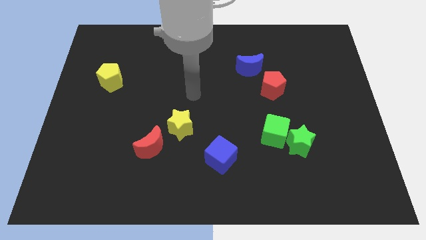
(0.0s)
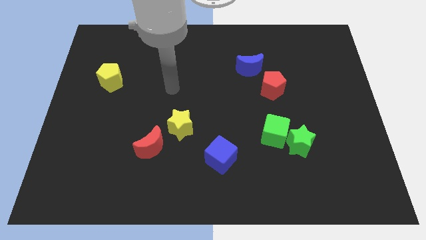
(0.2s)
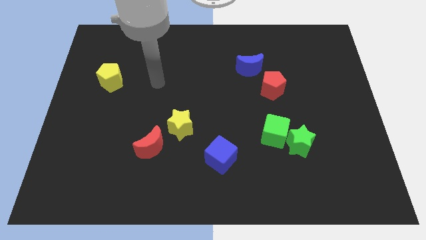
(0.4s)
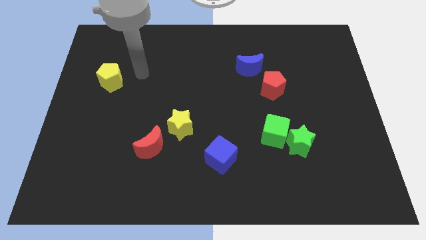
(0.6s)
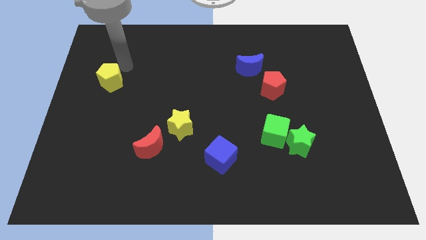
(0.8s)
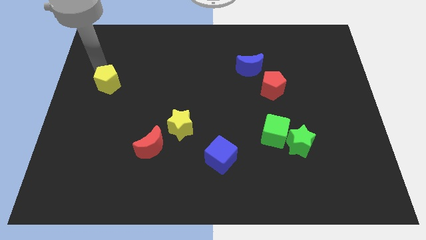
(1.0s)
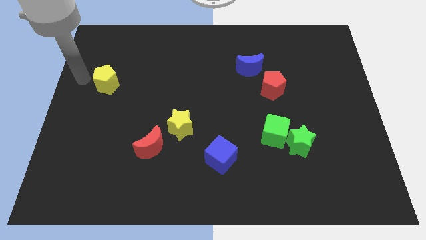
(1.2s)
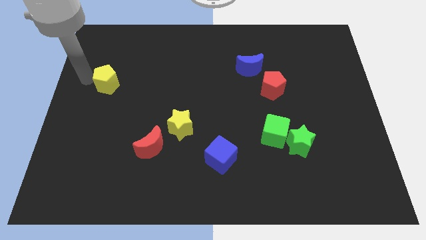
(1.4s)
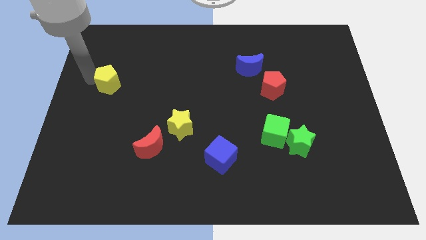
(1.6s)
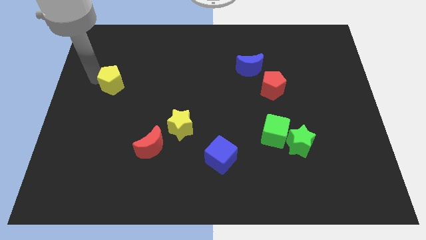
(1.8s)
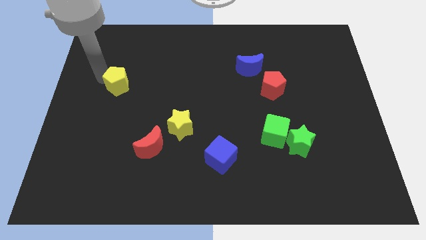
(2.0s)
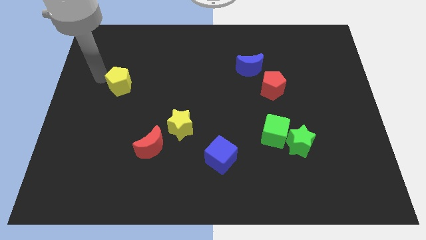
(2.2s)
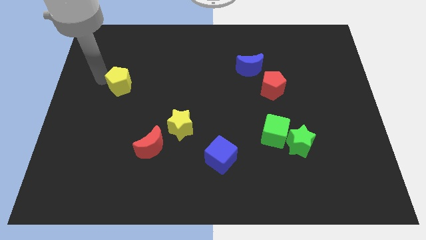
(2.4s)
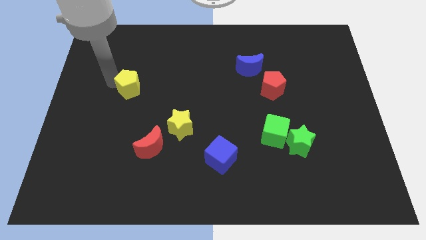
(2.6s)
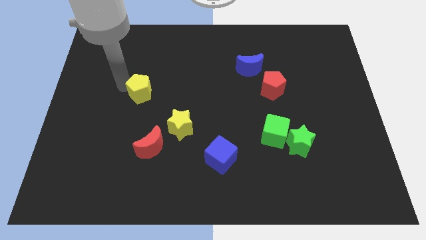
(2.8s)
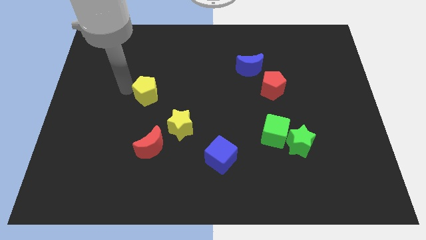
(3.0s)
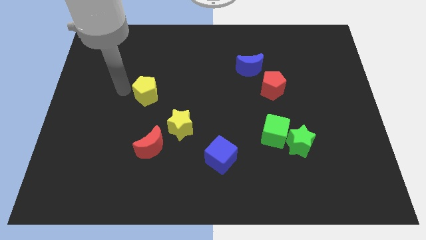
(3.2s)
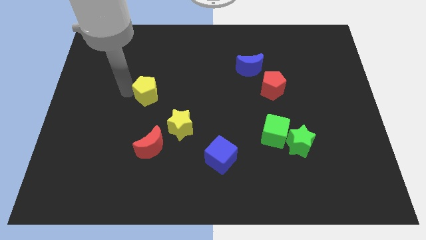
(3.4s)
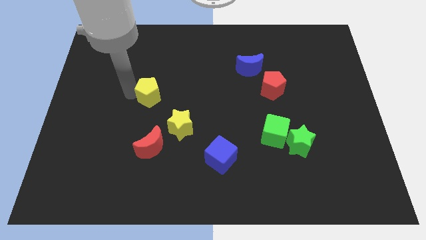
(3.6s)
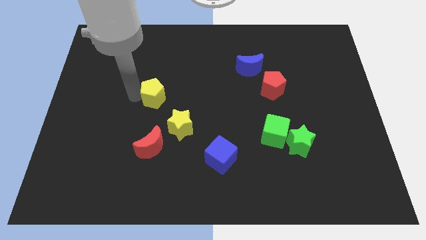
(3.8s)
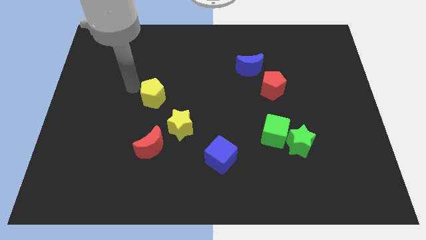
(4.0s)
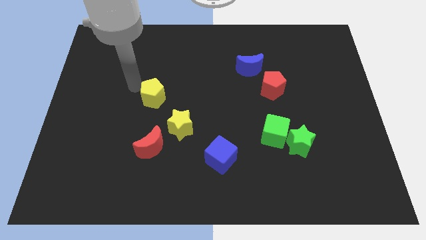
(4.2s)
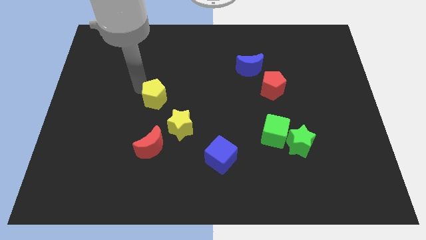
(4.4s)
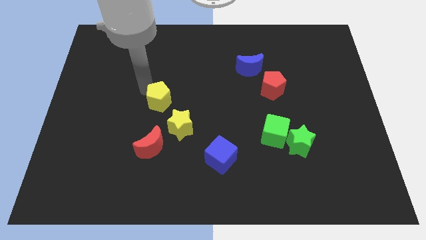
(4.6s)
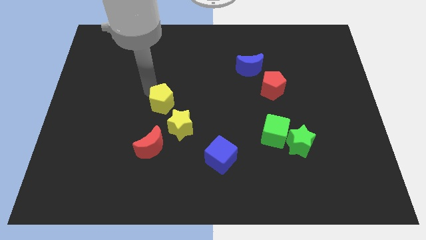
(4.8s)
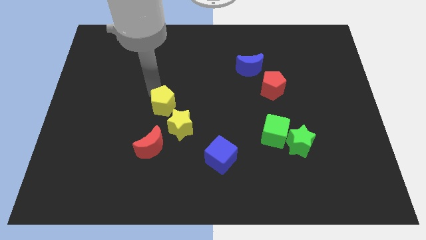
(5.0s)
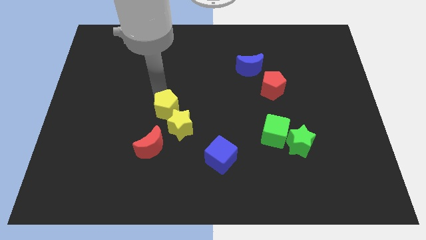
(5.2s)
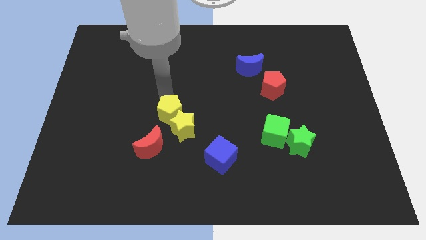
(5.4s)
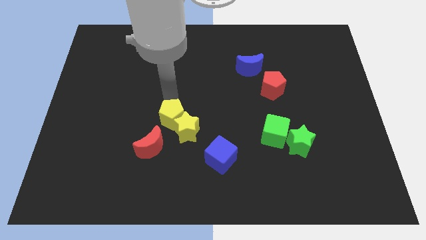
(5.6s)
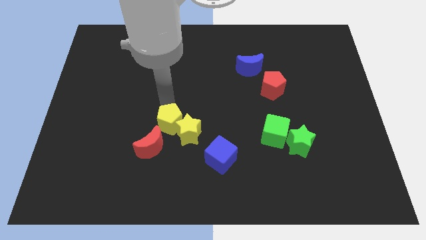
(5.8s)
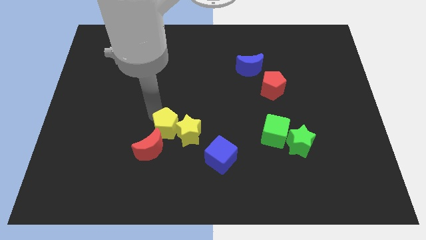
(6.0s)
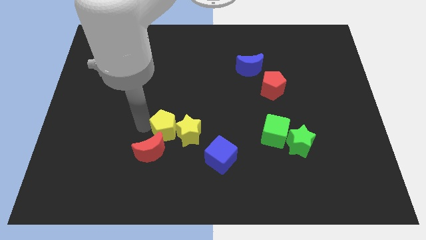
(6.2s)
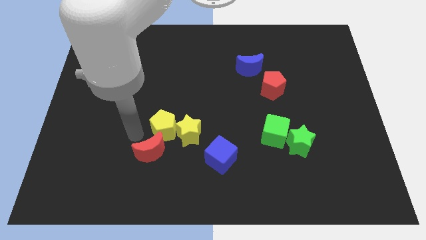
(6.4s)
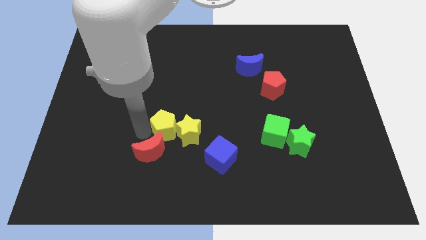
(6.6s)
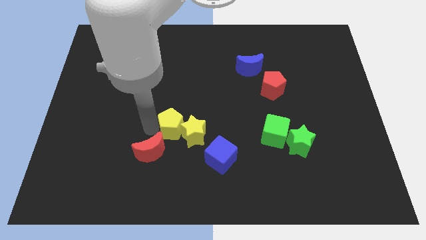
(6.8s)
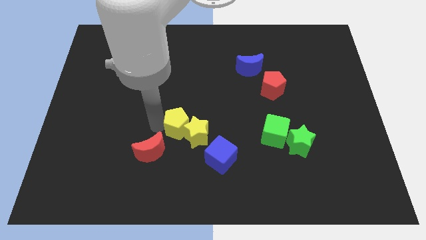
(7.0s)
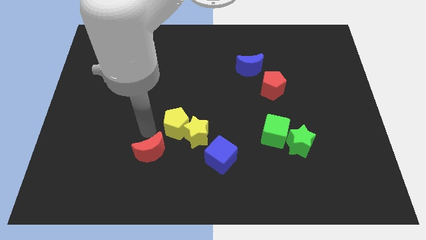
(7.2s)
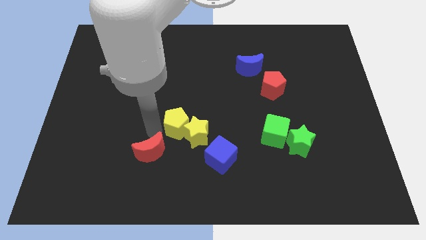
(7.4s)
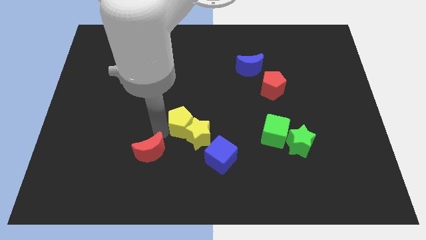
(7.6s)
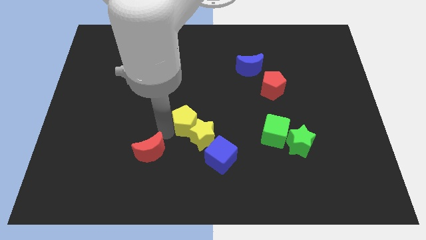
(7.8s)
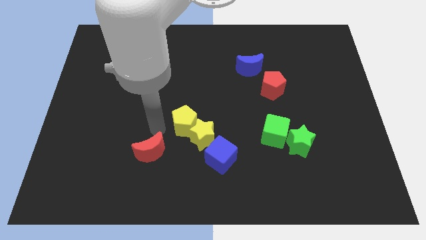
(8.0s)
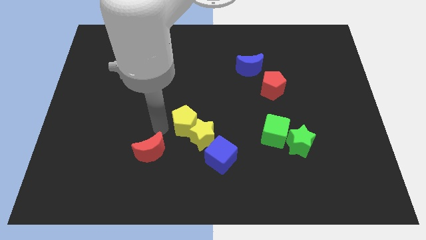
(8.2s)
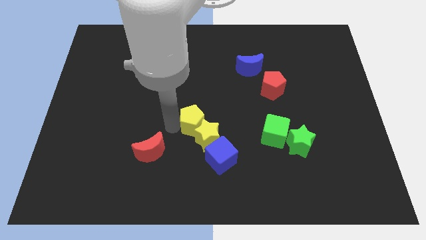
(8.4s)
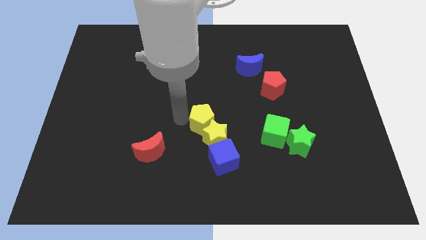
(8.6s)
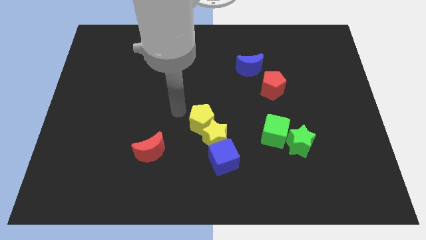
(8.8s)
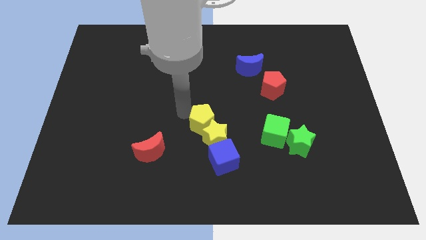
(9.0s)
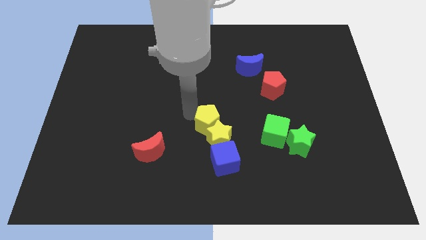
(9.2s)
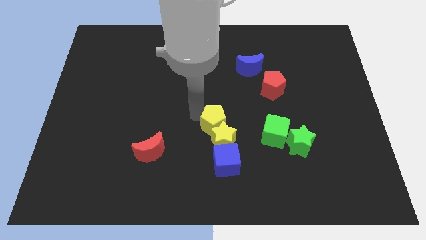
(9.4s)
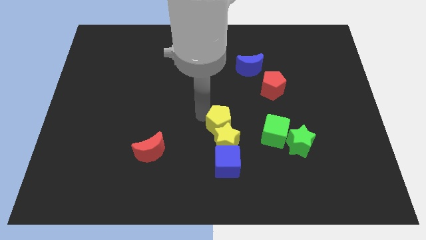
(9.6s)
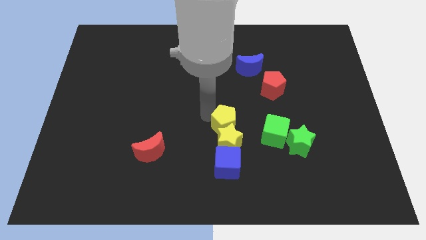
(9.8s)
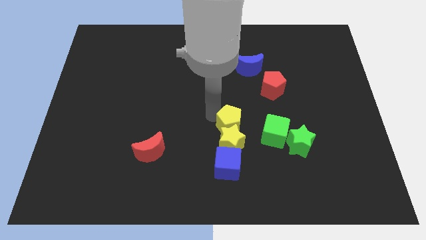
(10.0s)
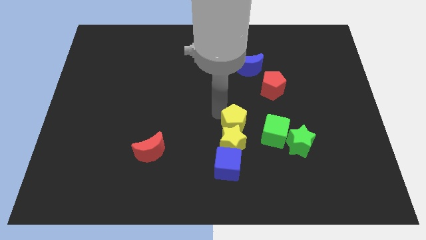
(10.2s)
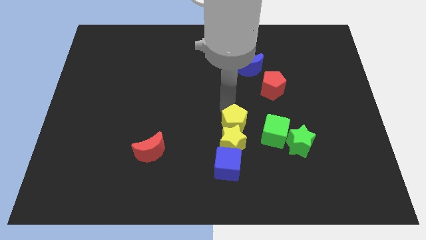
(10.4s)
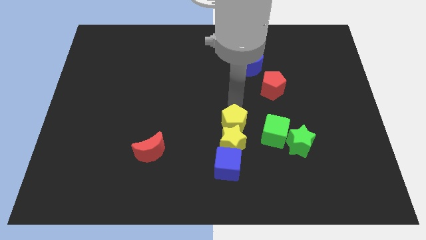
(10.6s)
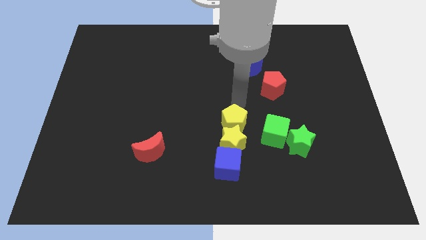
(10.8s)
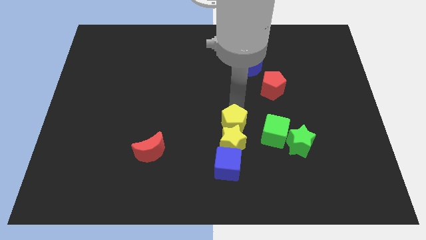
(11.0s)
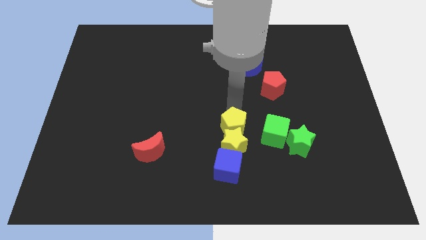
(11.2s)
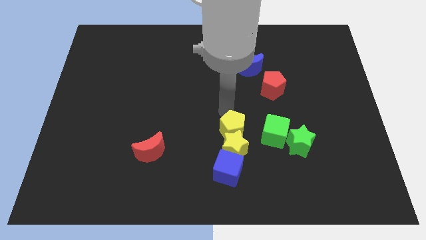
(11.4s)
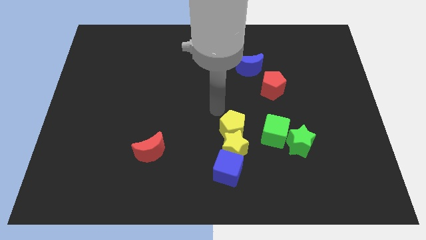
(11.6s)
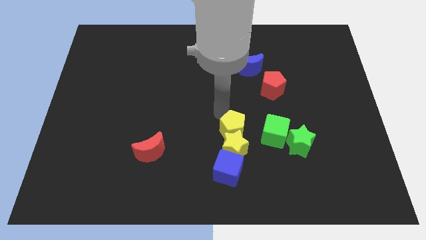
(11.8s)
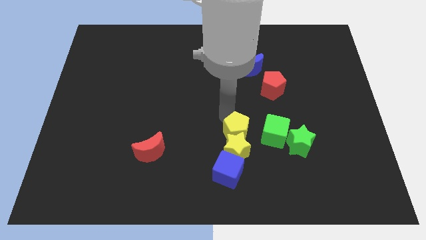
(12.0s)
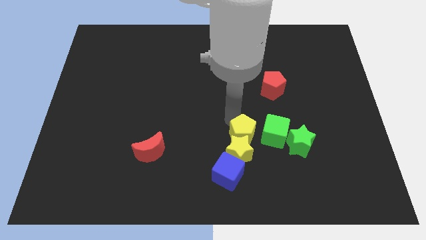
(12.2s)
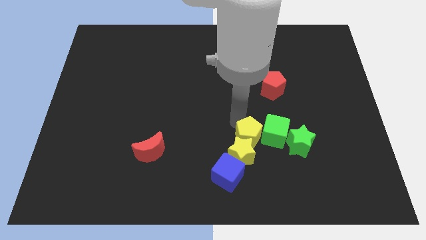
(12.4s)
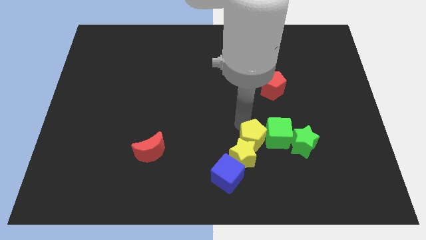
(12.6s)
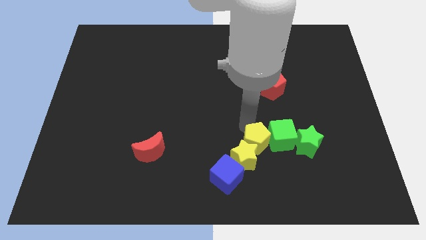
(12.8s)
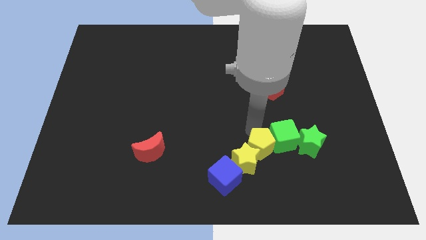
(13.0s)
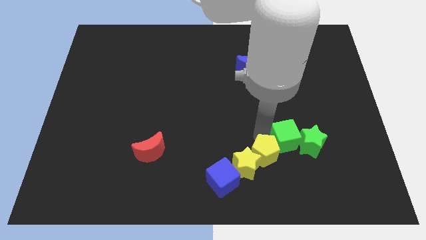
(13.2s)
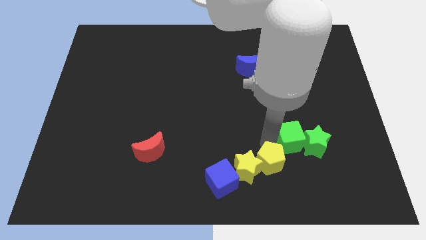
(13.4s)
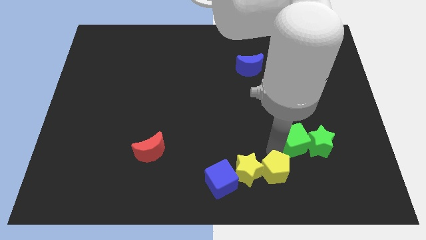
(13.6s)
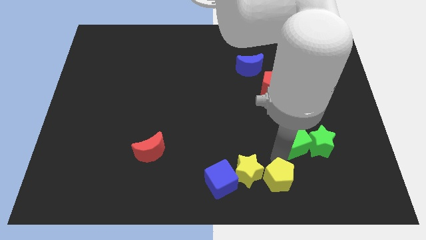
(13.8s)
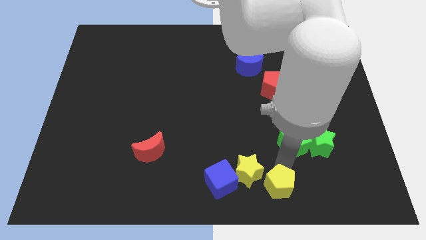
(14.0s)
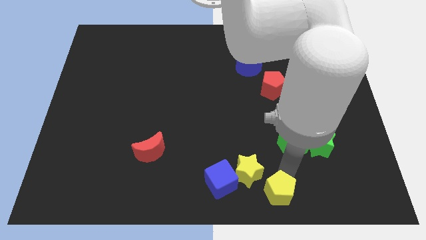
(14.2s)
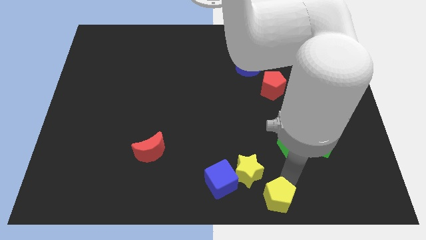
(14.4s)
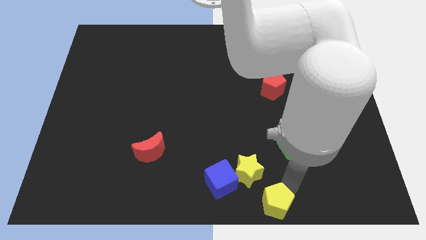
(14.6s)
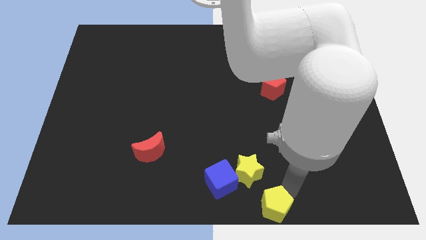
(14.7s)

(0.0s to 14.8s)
move the yellow pentagon diagonally down and to the right of the blue cube
